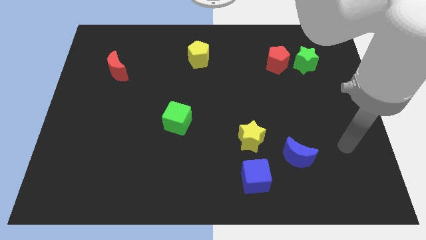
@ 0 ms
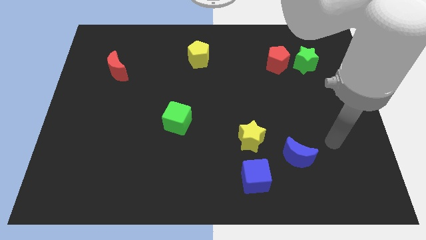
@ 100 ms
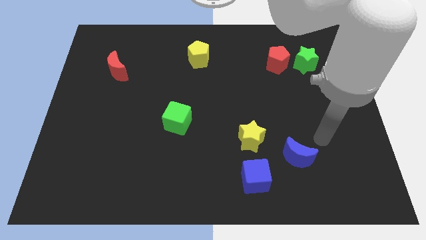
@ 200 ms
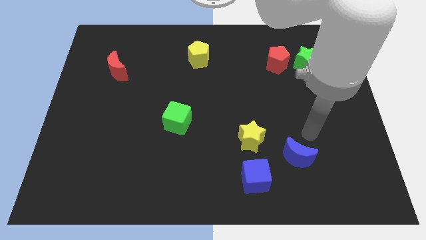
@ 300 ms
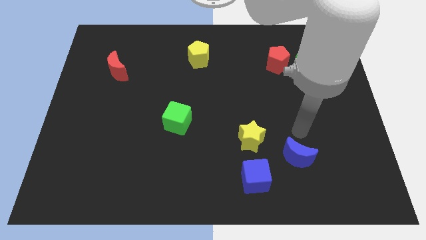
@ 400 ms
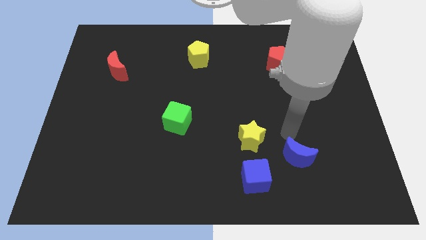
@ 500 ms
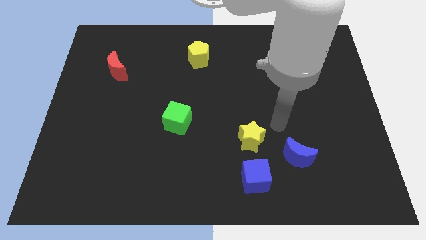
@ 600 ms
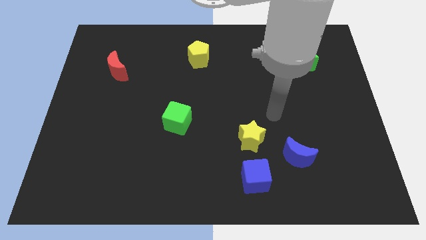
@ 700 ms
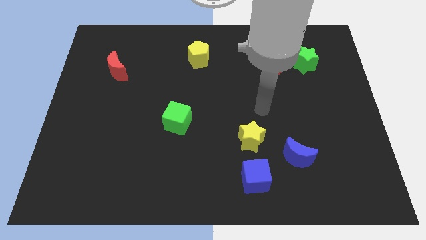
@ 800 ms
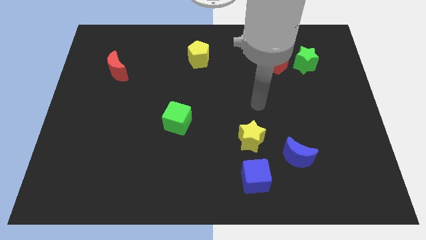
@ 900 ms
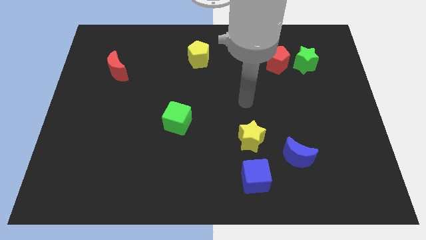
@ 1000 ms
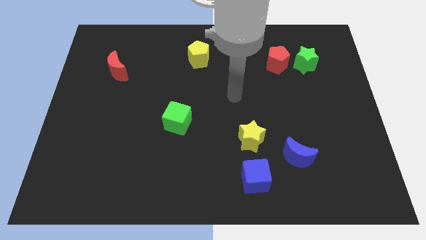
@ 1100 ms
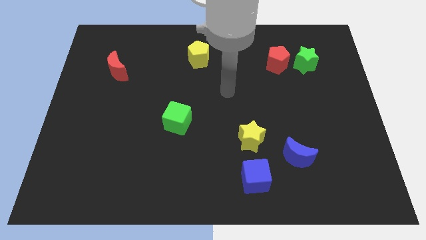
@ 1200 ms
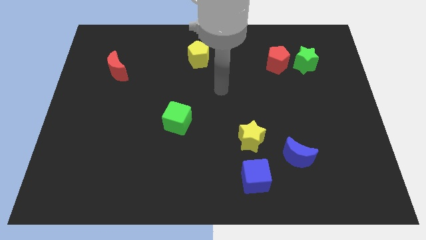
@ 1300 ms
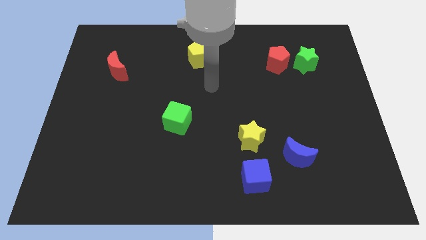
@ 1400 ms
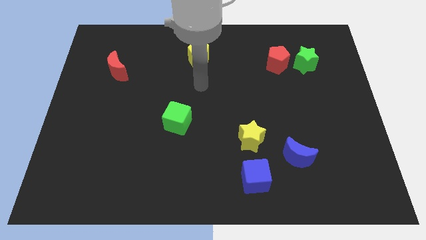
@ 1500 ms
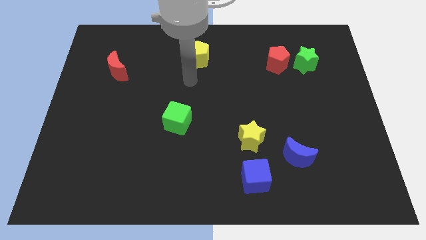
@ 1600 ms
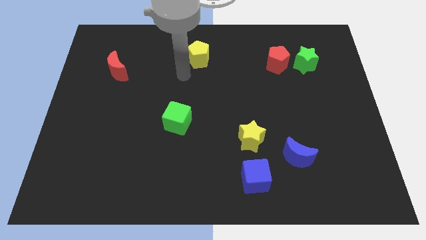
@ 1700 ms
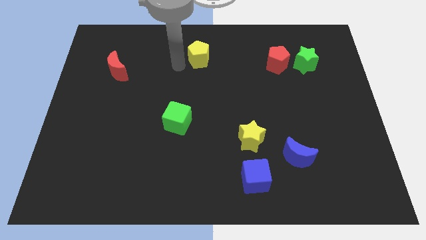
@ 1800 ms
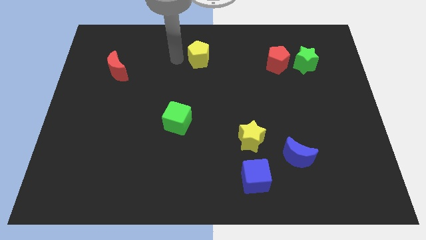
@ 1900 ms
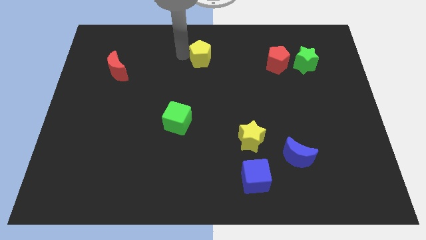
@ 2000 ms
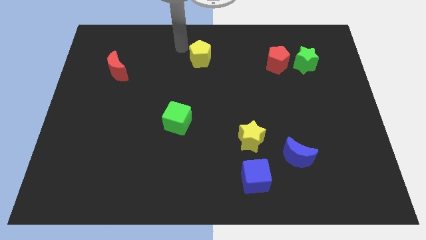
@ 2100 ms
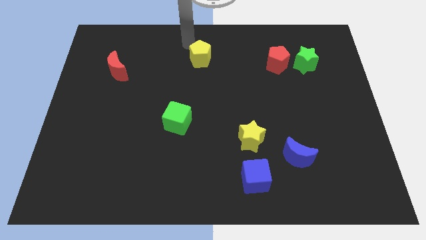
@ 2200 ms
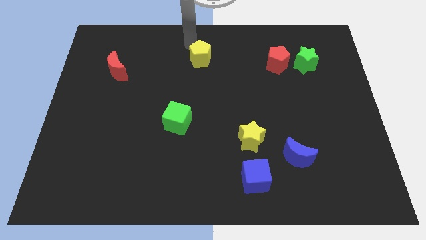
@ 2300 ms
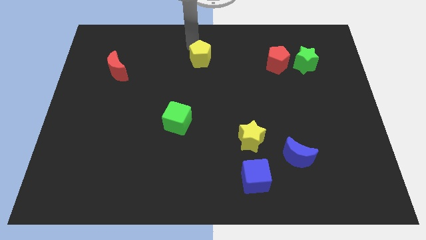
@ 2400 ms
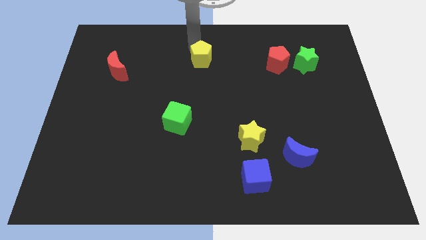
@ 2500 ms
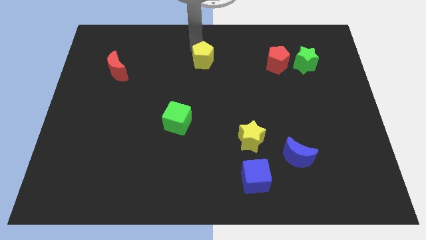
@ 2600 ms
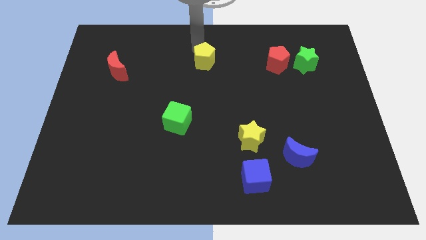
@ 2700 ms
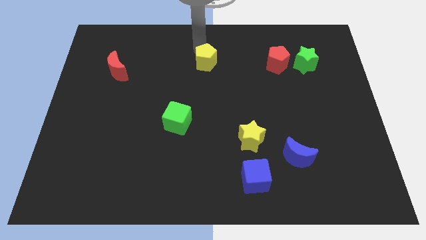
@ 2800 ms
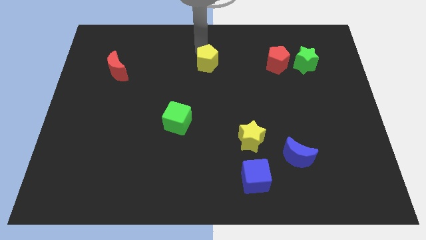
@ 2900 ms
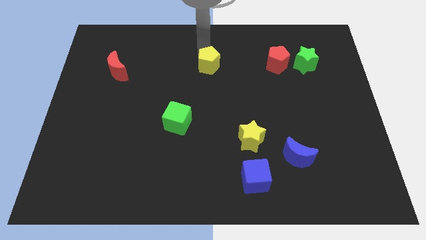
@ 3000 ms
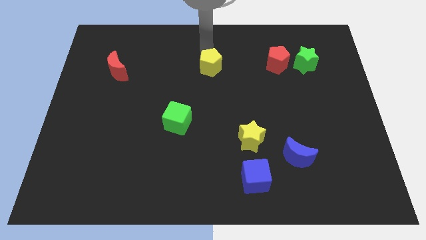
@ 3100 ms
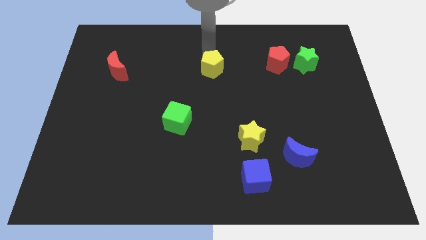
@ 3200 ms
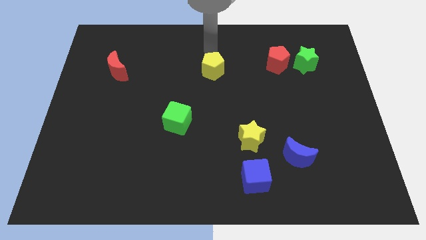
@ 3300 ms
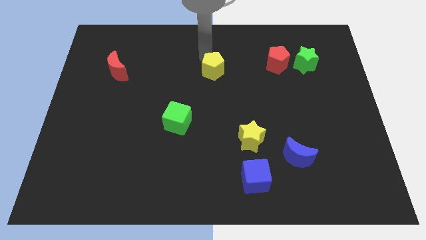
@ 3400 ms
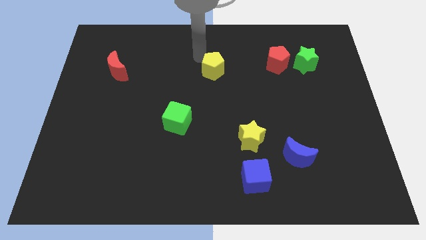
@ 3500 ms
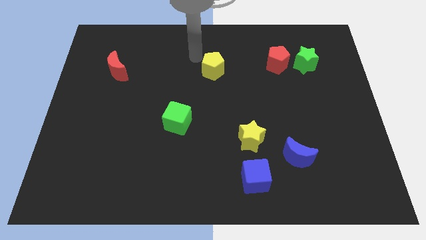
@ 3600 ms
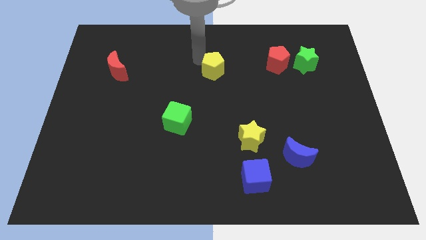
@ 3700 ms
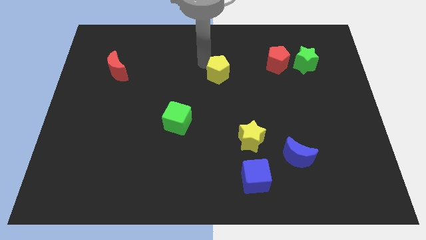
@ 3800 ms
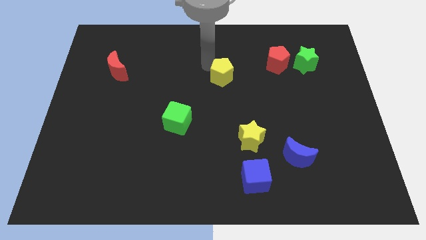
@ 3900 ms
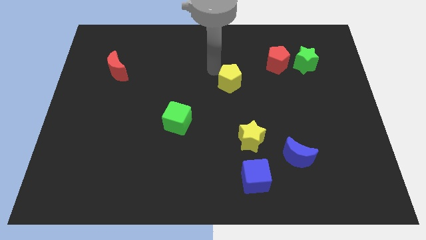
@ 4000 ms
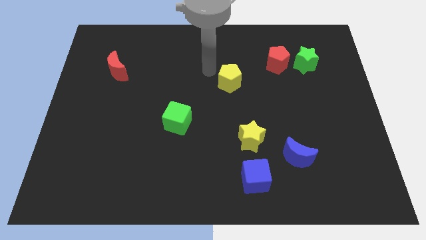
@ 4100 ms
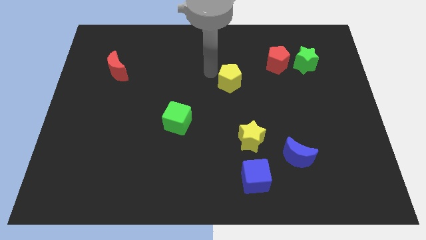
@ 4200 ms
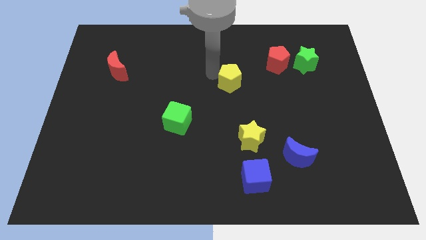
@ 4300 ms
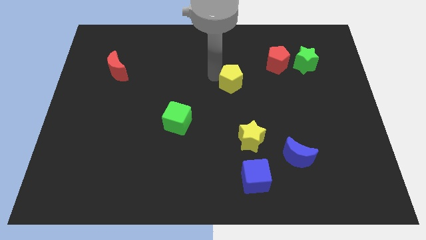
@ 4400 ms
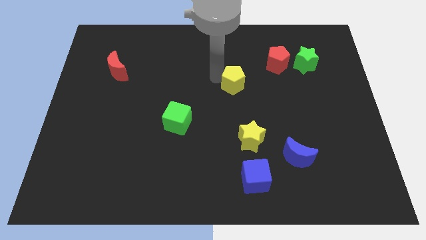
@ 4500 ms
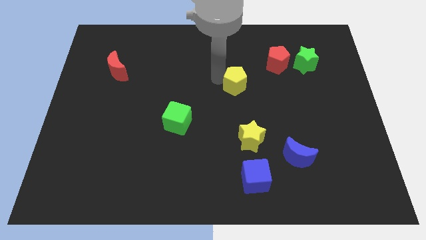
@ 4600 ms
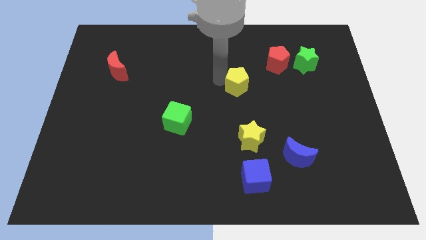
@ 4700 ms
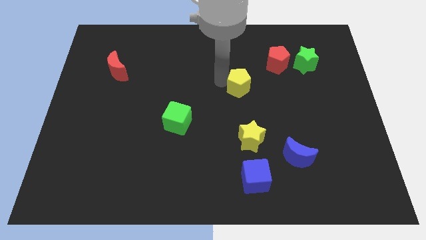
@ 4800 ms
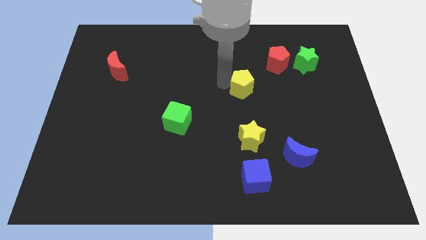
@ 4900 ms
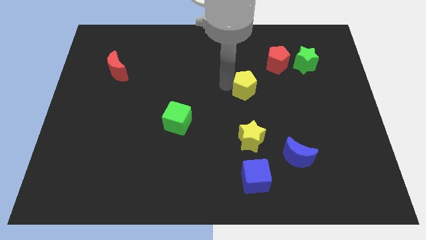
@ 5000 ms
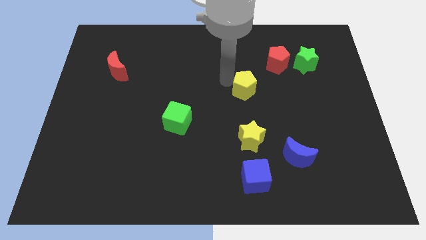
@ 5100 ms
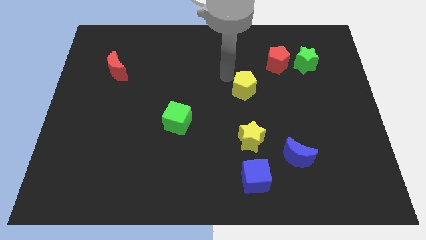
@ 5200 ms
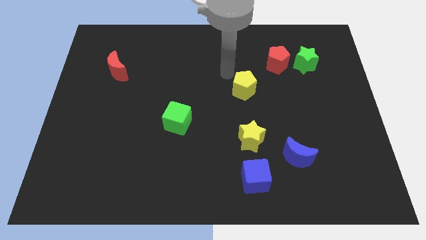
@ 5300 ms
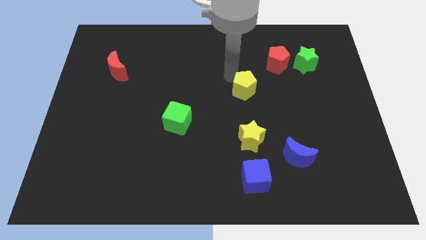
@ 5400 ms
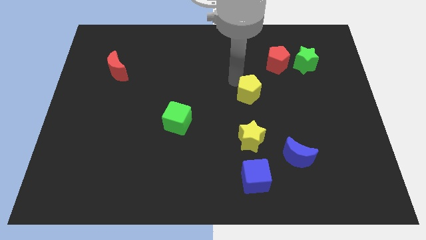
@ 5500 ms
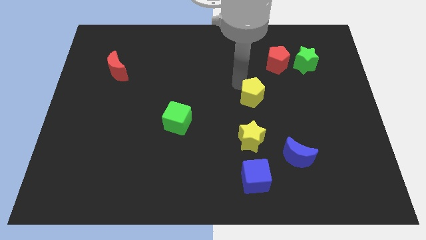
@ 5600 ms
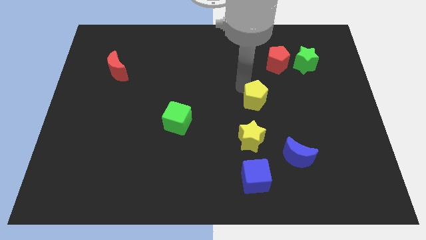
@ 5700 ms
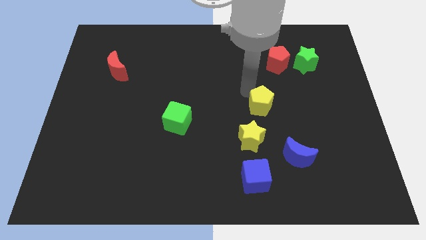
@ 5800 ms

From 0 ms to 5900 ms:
slide the yellow pentagon diagonally downwards and to the right

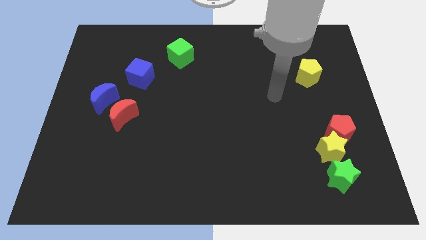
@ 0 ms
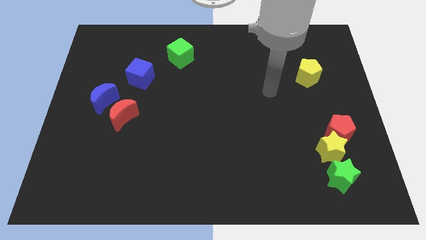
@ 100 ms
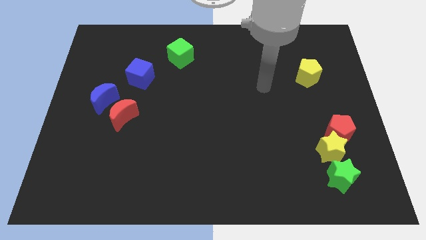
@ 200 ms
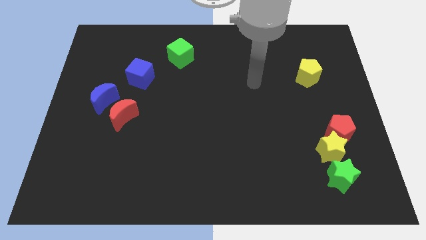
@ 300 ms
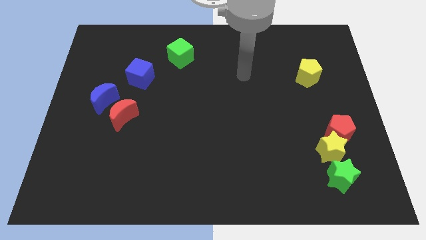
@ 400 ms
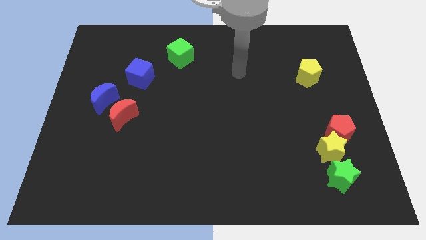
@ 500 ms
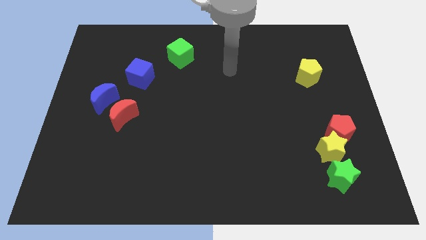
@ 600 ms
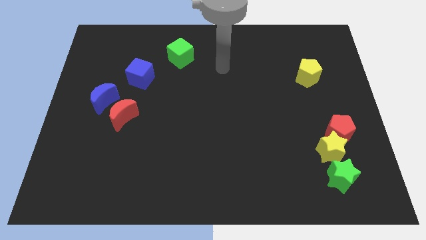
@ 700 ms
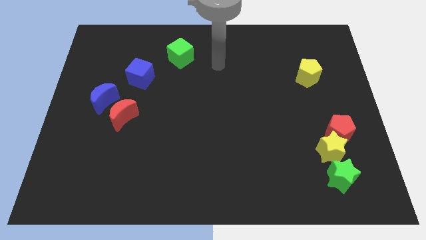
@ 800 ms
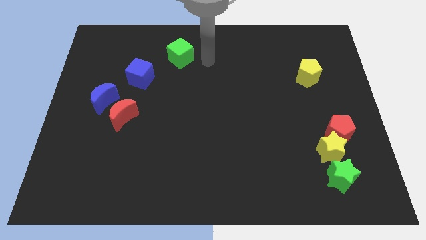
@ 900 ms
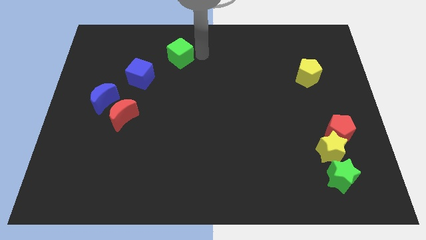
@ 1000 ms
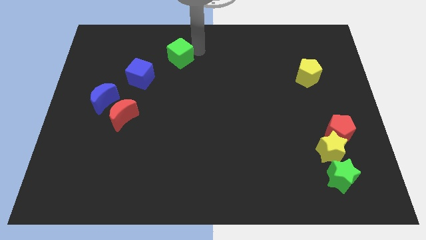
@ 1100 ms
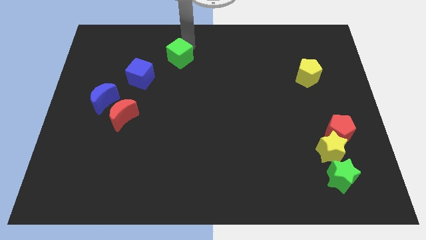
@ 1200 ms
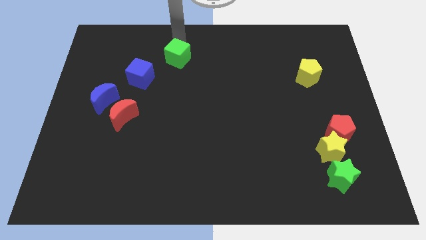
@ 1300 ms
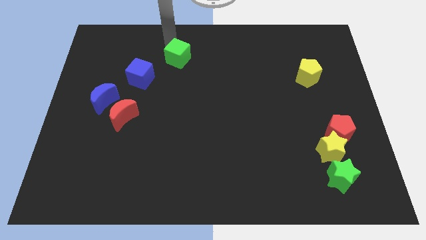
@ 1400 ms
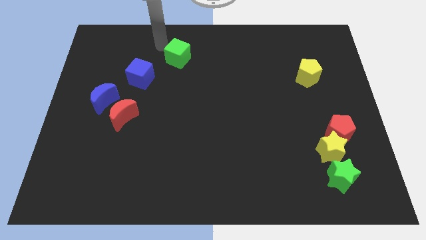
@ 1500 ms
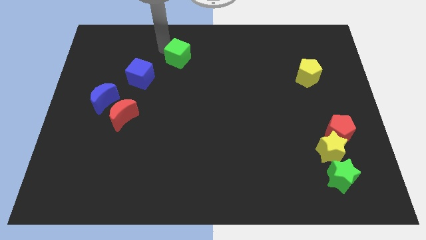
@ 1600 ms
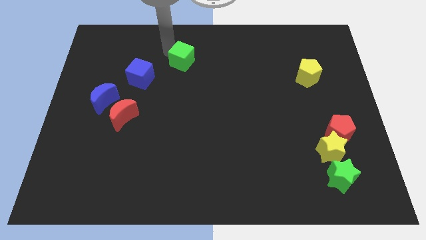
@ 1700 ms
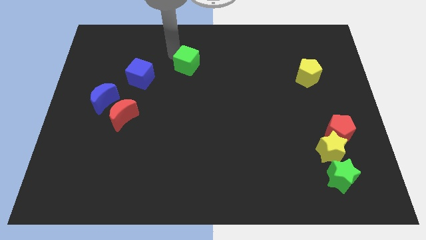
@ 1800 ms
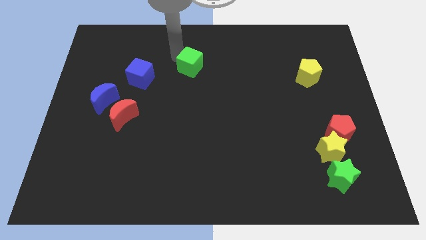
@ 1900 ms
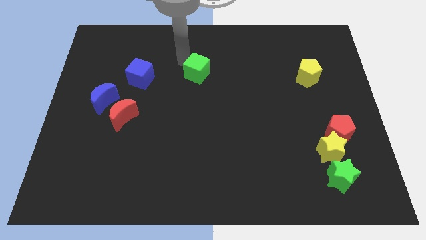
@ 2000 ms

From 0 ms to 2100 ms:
slightly slide the green cube down and to the right diagonally

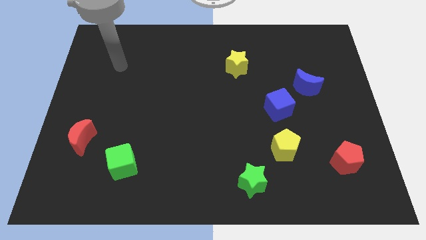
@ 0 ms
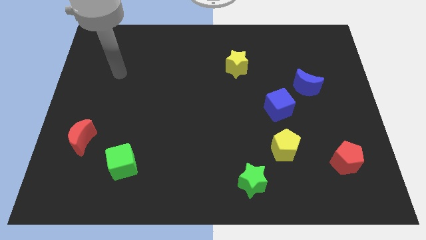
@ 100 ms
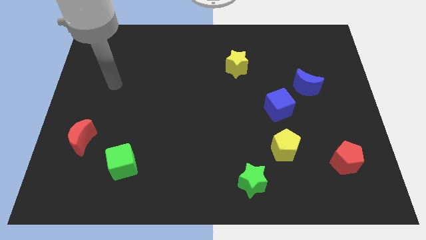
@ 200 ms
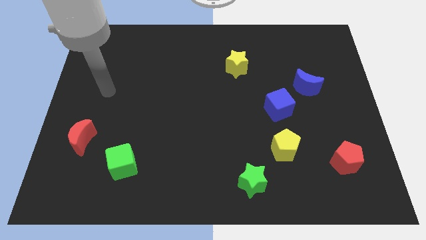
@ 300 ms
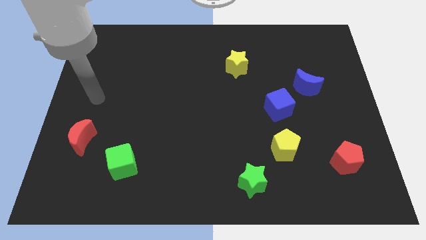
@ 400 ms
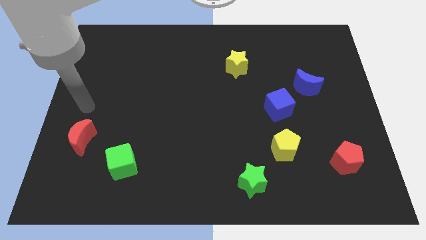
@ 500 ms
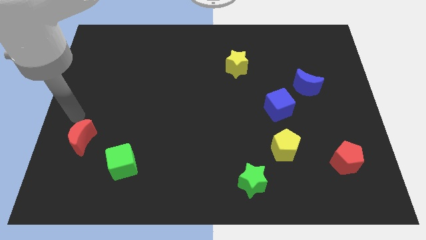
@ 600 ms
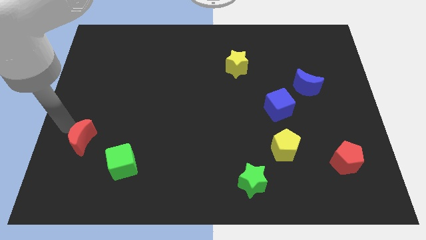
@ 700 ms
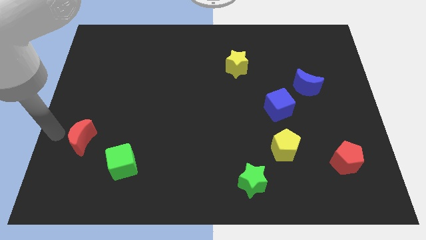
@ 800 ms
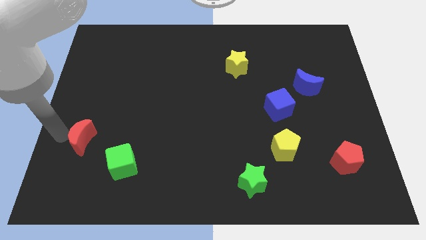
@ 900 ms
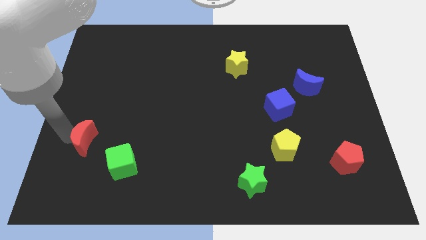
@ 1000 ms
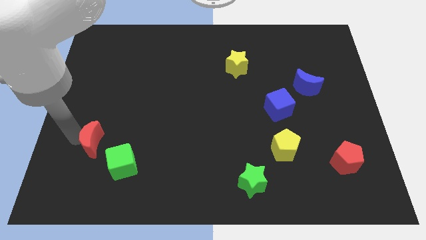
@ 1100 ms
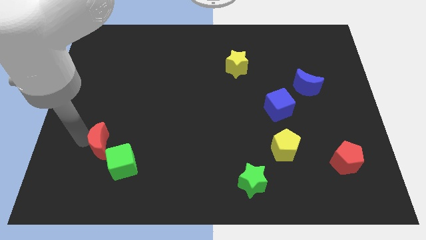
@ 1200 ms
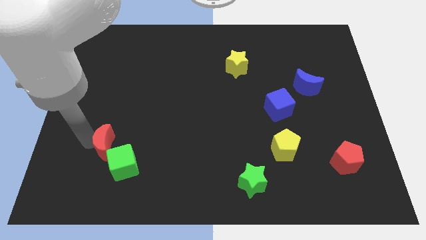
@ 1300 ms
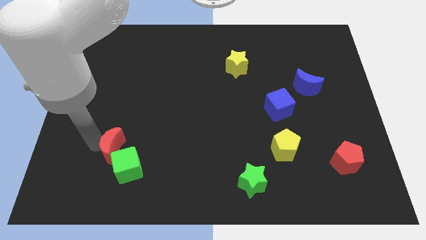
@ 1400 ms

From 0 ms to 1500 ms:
slide the red moon a bit right
